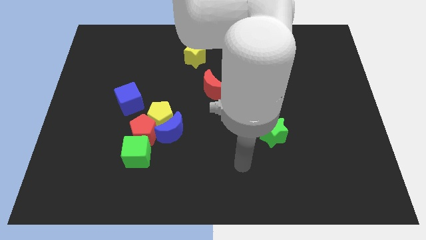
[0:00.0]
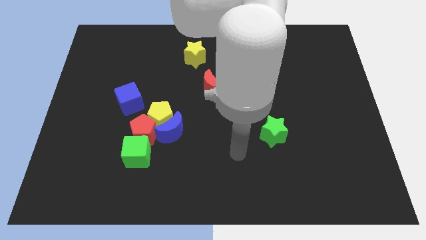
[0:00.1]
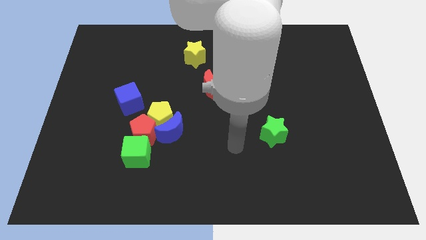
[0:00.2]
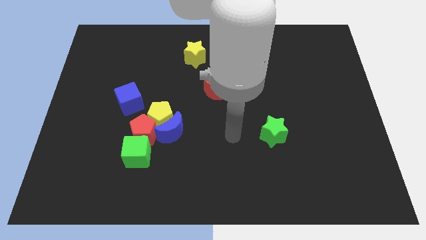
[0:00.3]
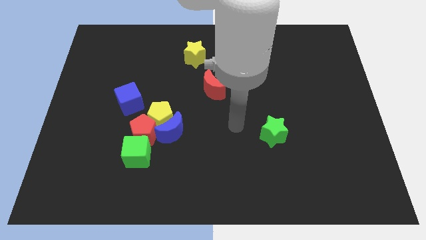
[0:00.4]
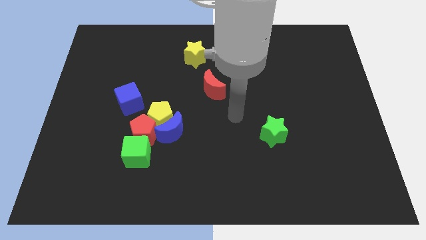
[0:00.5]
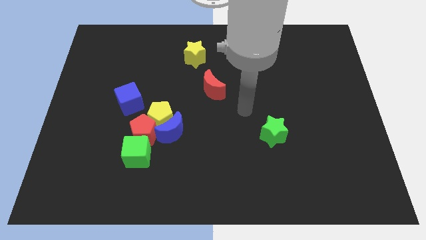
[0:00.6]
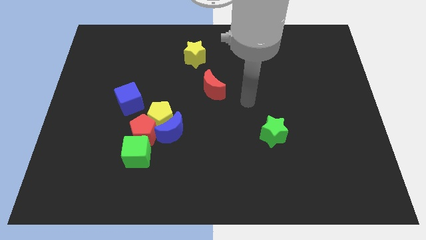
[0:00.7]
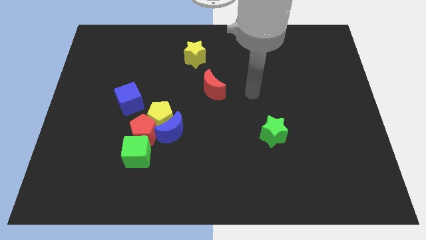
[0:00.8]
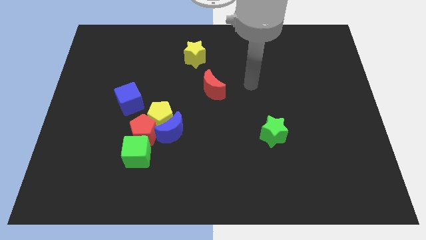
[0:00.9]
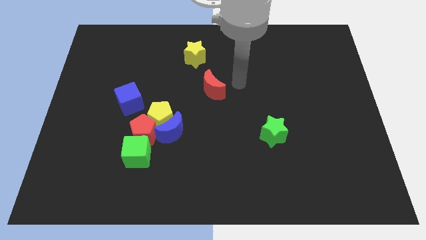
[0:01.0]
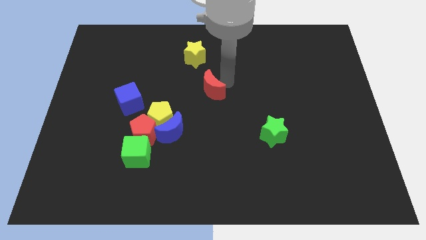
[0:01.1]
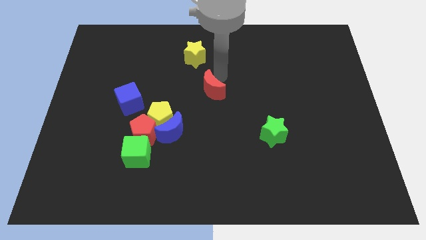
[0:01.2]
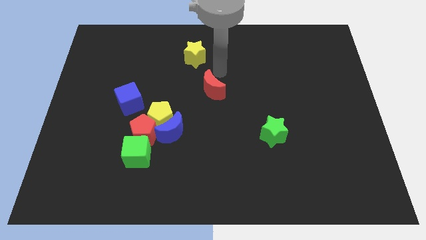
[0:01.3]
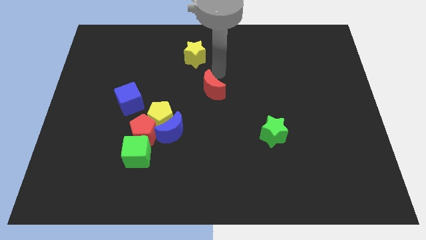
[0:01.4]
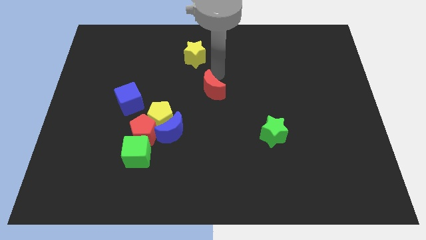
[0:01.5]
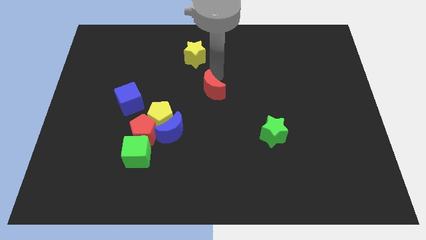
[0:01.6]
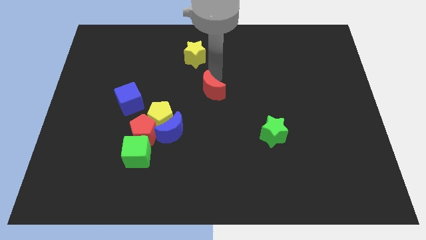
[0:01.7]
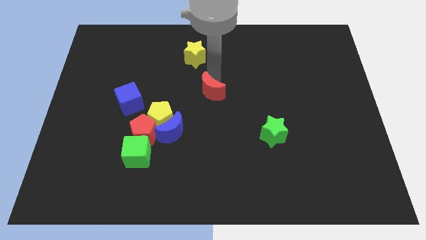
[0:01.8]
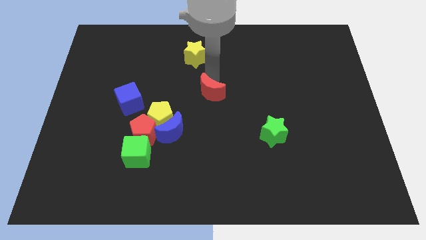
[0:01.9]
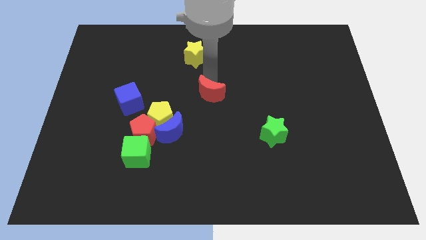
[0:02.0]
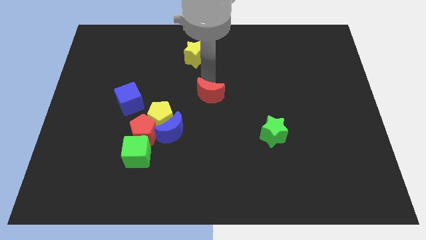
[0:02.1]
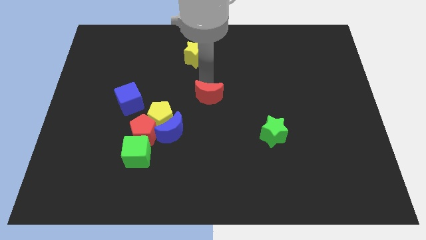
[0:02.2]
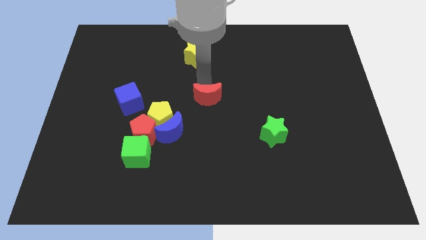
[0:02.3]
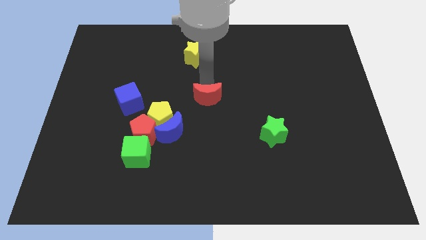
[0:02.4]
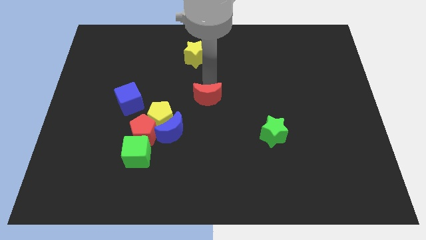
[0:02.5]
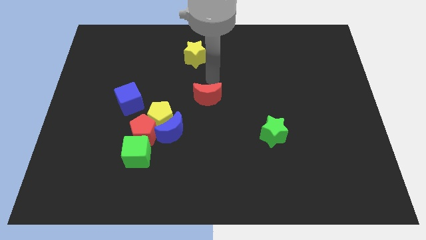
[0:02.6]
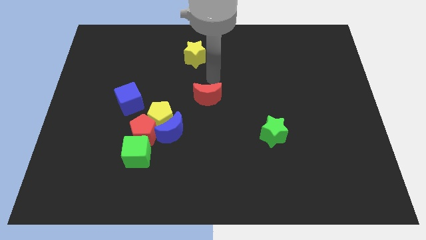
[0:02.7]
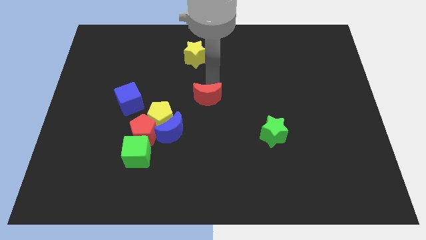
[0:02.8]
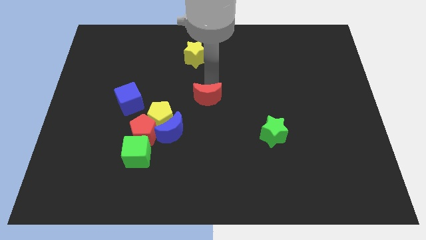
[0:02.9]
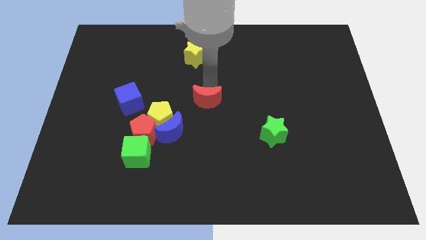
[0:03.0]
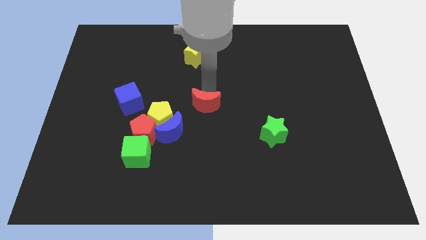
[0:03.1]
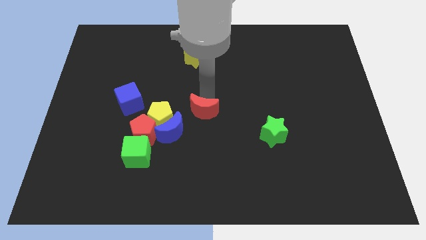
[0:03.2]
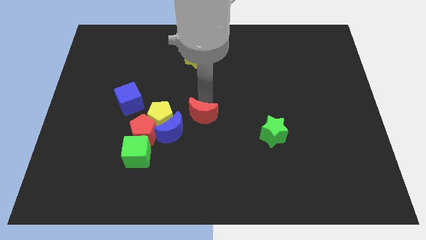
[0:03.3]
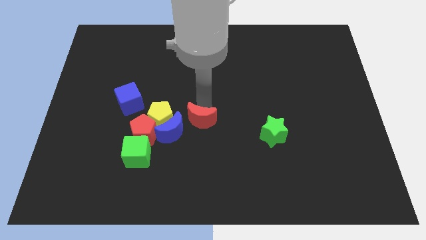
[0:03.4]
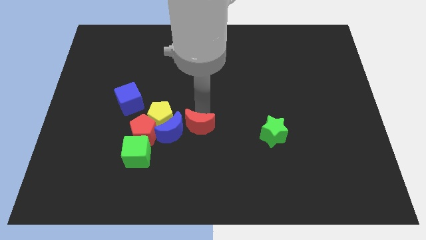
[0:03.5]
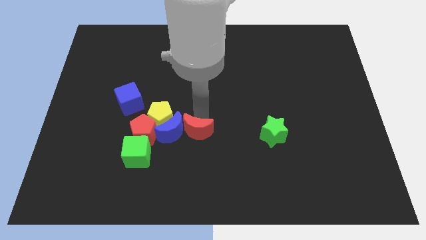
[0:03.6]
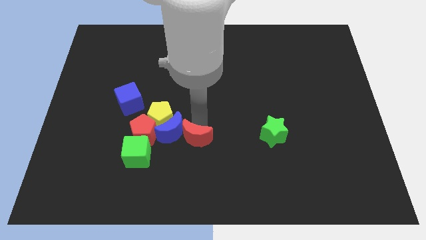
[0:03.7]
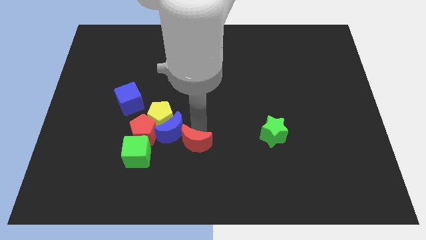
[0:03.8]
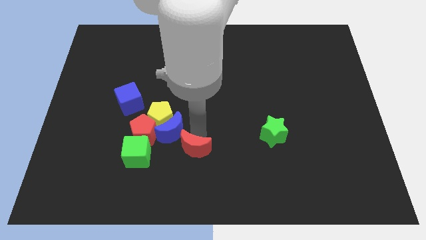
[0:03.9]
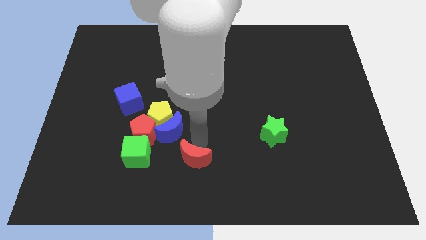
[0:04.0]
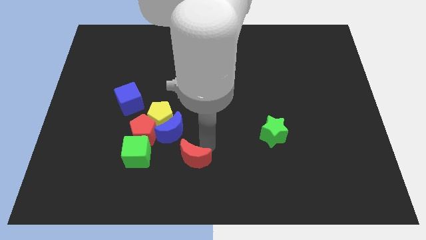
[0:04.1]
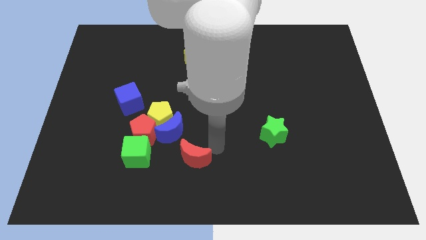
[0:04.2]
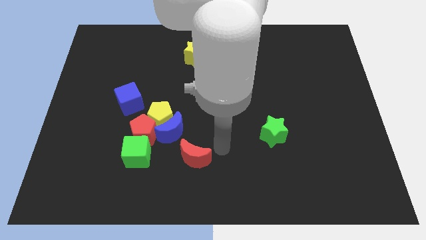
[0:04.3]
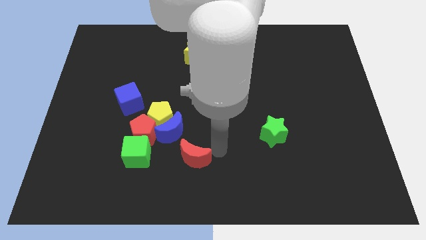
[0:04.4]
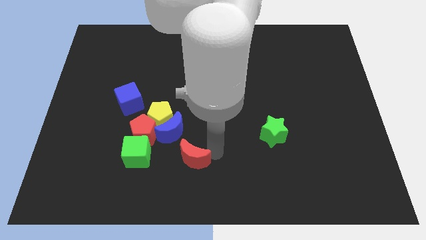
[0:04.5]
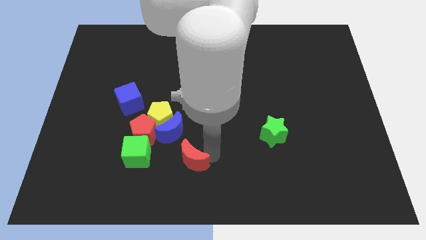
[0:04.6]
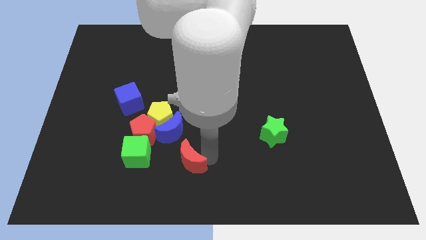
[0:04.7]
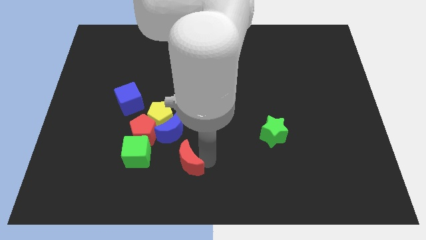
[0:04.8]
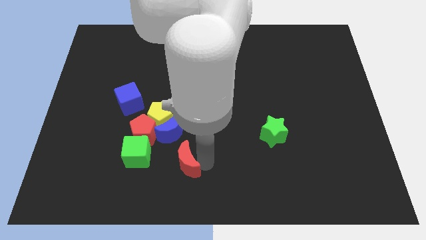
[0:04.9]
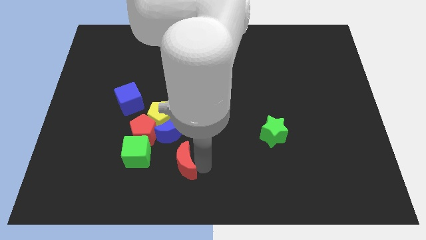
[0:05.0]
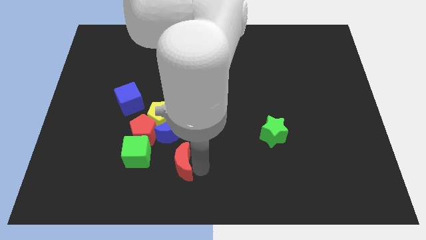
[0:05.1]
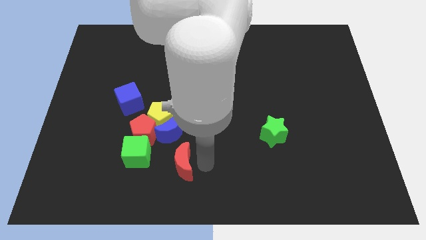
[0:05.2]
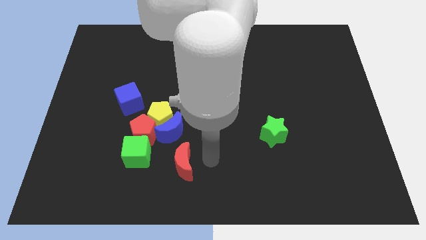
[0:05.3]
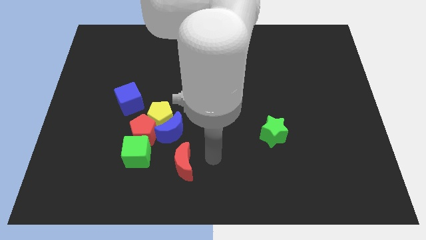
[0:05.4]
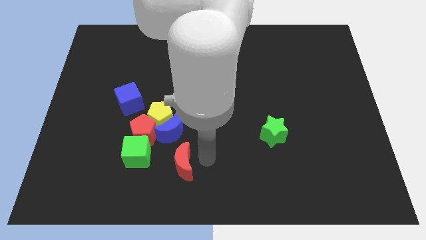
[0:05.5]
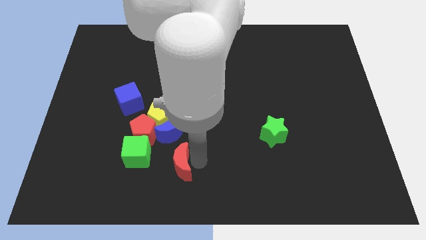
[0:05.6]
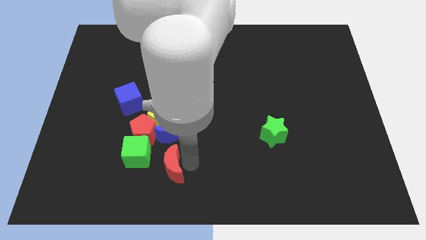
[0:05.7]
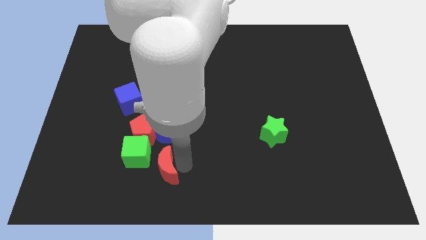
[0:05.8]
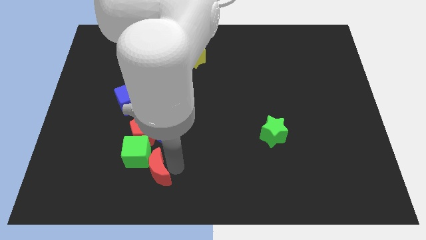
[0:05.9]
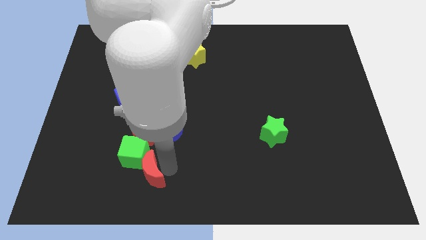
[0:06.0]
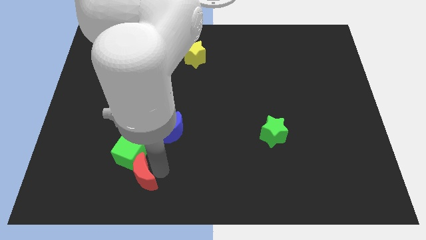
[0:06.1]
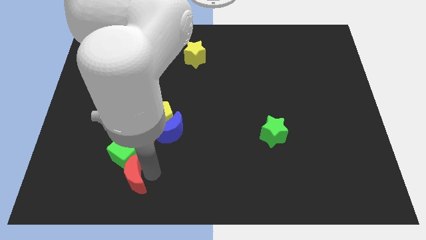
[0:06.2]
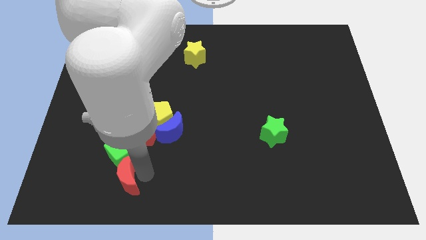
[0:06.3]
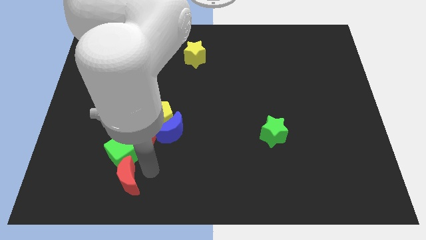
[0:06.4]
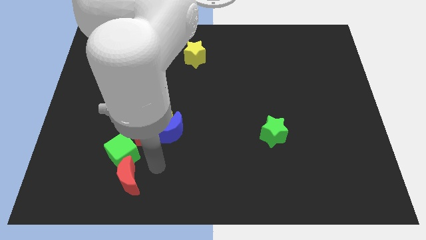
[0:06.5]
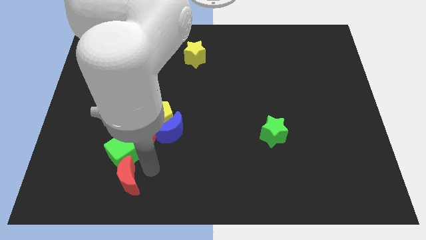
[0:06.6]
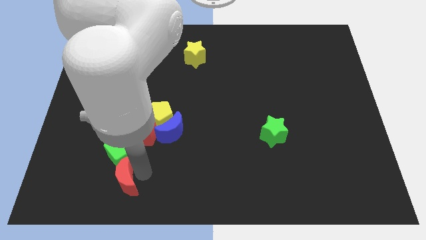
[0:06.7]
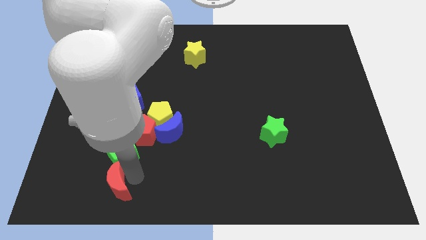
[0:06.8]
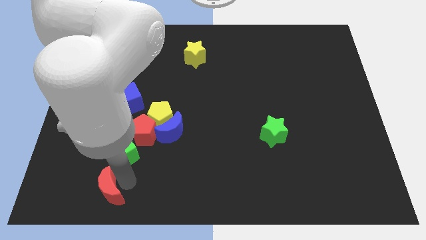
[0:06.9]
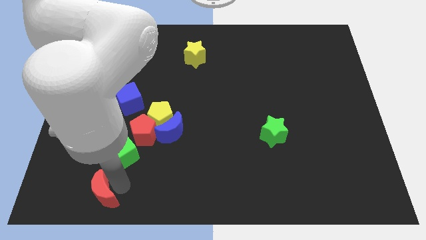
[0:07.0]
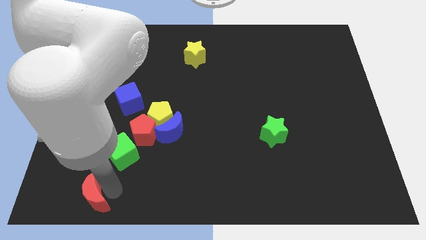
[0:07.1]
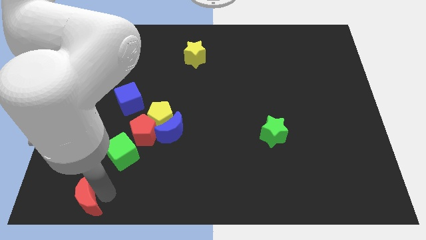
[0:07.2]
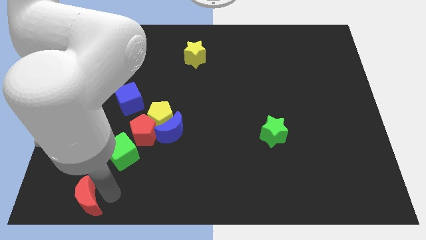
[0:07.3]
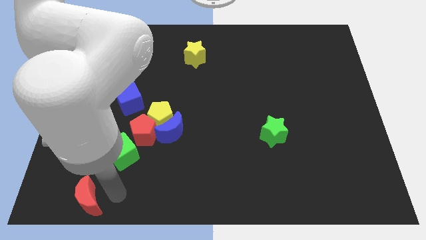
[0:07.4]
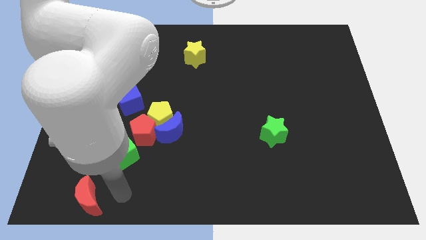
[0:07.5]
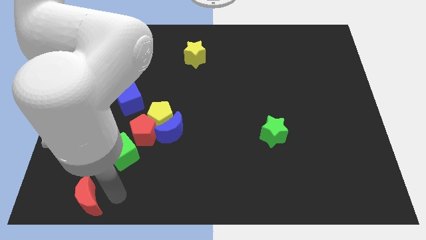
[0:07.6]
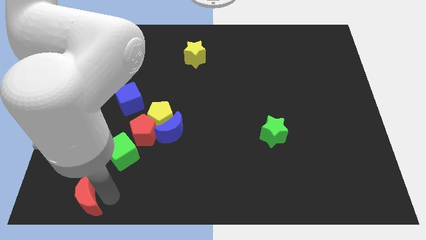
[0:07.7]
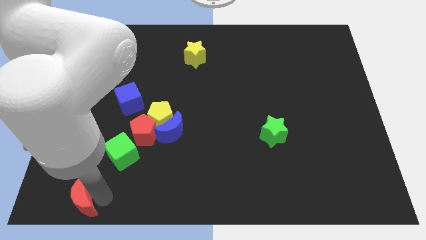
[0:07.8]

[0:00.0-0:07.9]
put the red moon to the bottom left
